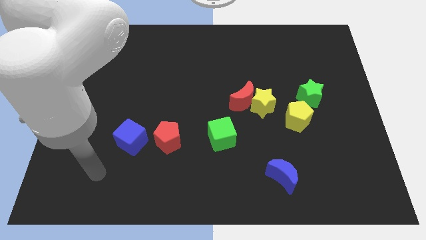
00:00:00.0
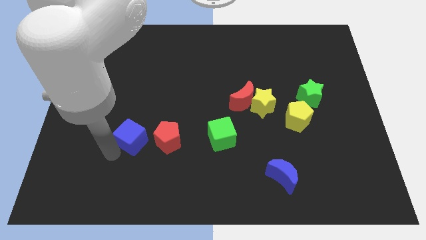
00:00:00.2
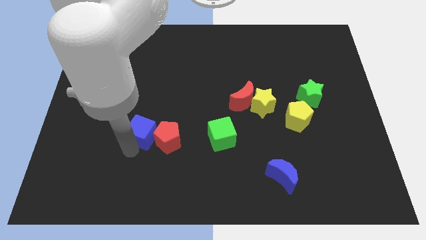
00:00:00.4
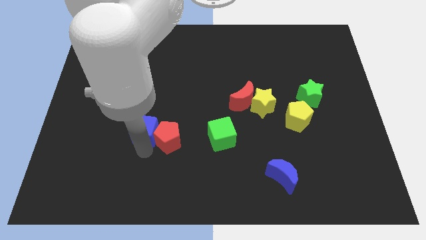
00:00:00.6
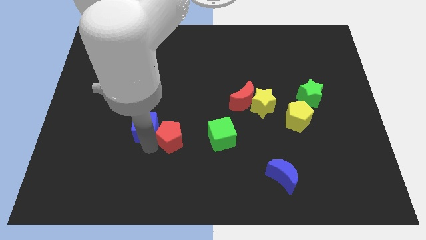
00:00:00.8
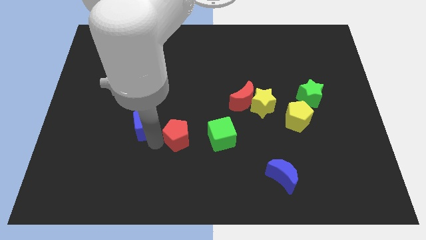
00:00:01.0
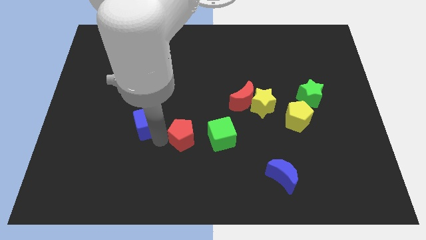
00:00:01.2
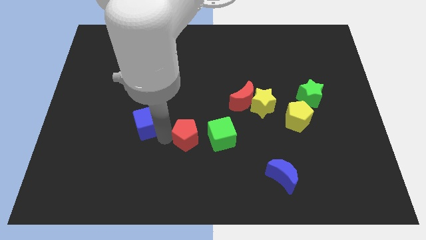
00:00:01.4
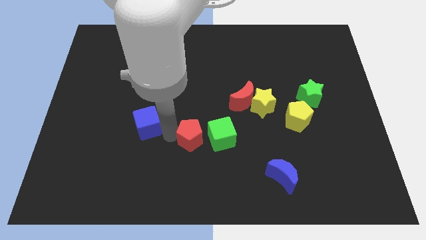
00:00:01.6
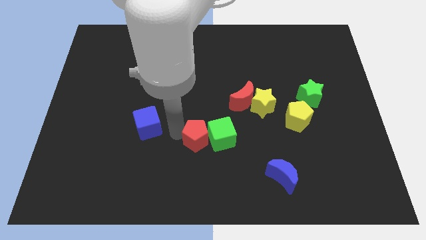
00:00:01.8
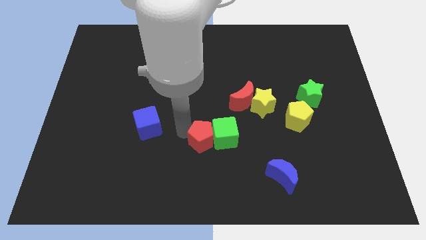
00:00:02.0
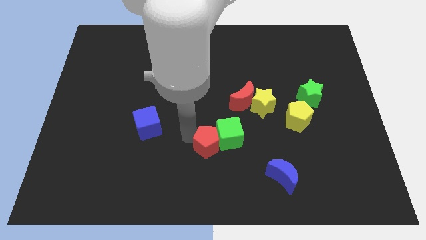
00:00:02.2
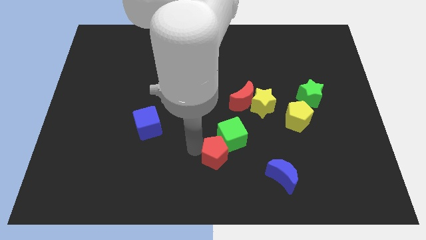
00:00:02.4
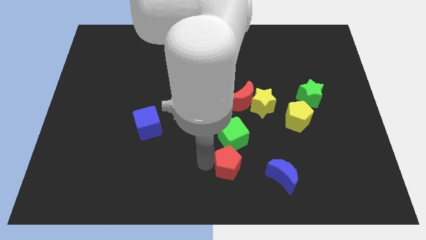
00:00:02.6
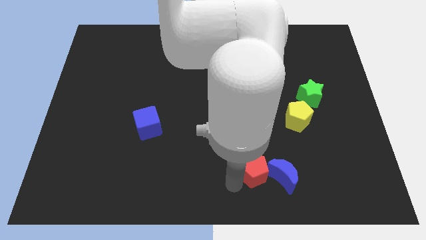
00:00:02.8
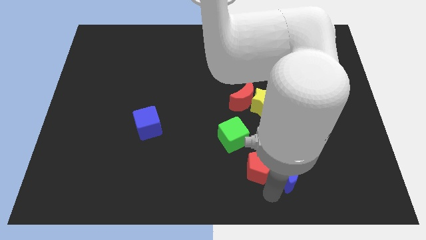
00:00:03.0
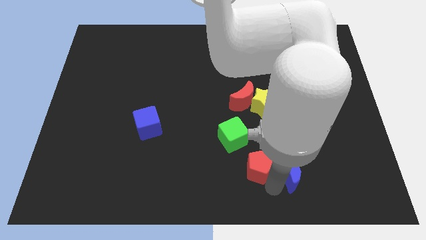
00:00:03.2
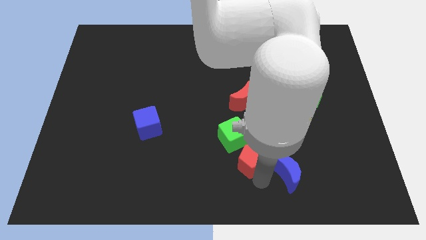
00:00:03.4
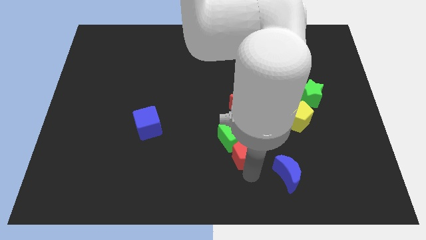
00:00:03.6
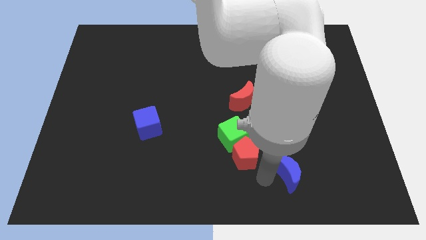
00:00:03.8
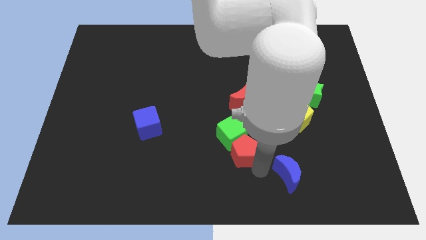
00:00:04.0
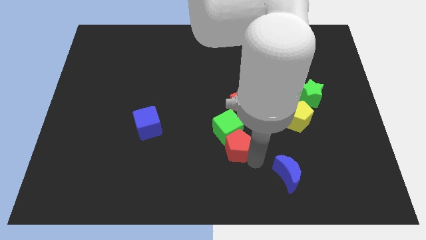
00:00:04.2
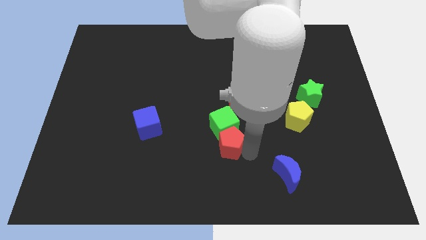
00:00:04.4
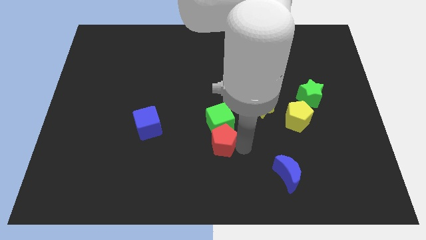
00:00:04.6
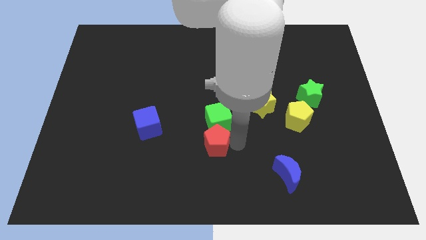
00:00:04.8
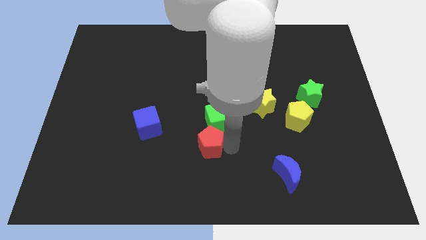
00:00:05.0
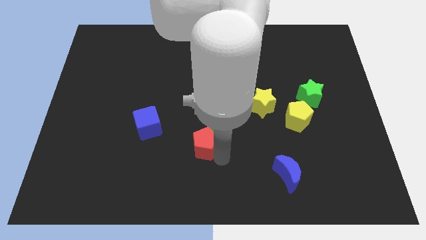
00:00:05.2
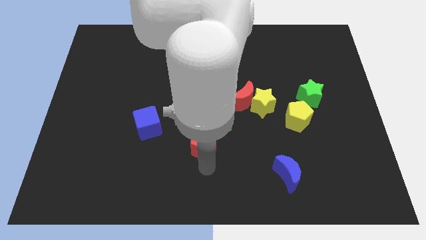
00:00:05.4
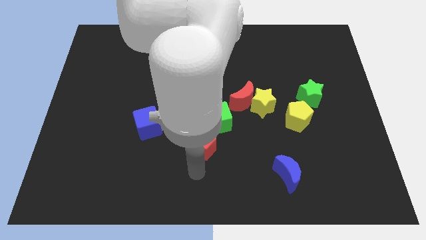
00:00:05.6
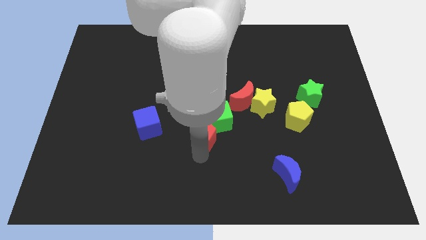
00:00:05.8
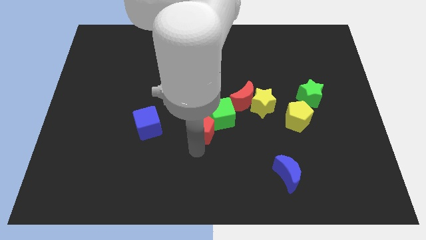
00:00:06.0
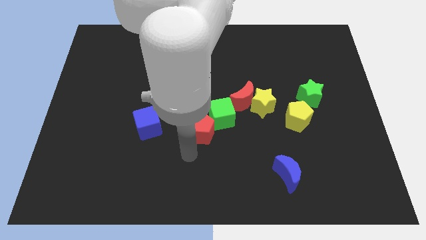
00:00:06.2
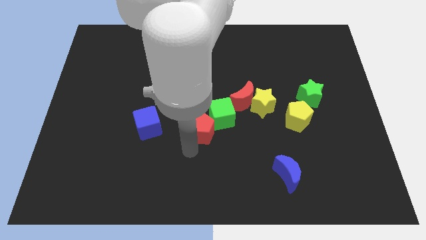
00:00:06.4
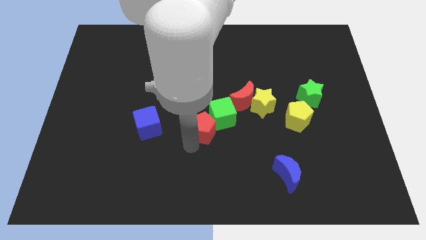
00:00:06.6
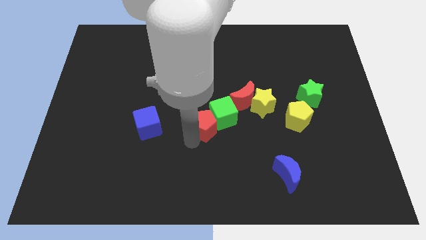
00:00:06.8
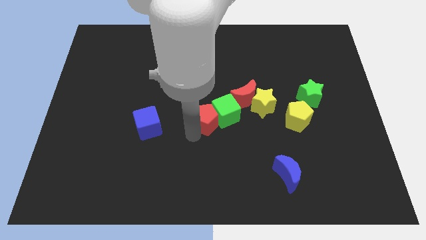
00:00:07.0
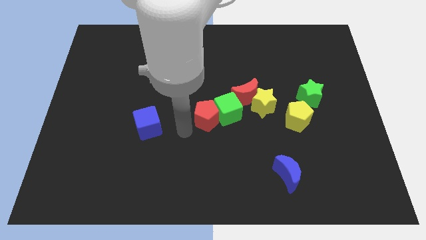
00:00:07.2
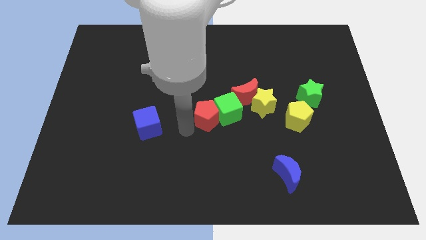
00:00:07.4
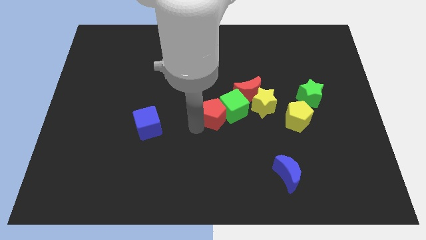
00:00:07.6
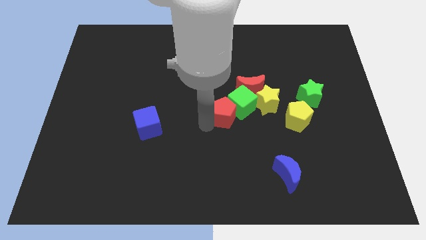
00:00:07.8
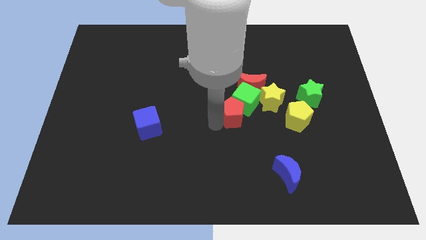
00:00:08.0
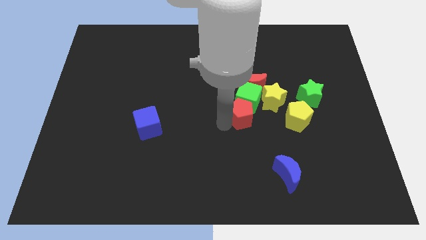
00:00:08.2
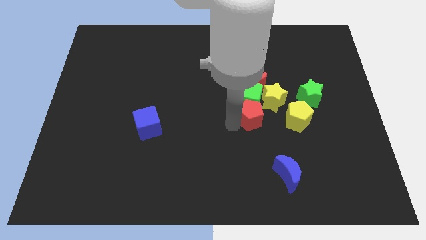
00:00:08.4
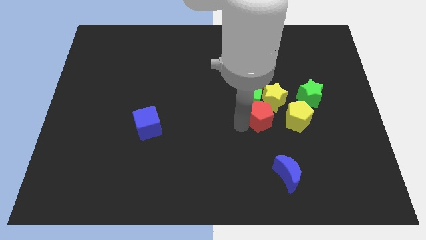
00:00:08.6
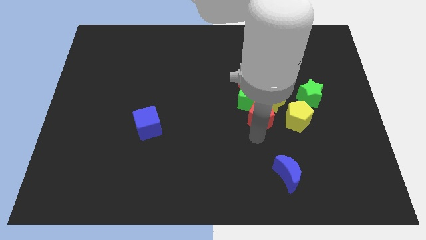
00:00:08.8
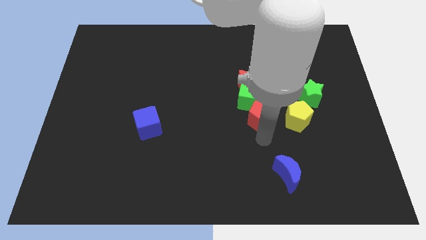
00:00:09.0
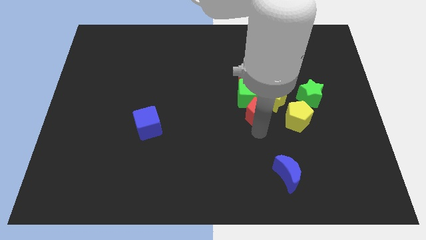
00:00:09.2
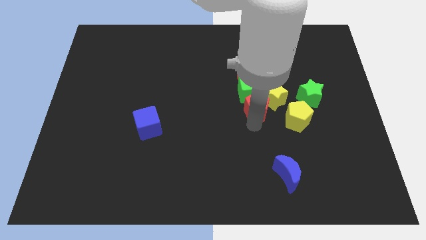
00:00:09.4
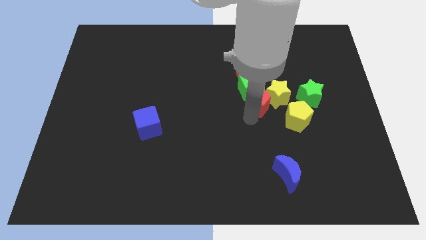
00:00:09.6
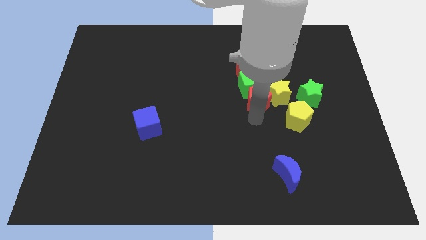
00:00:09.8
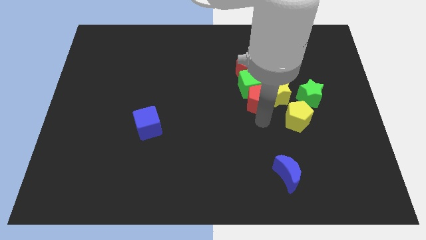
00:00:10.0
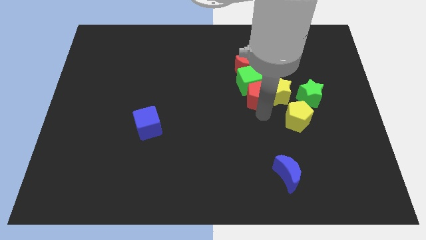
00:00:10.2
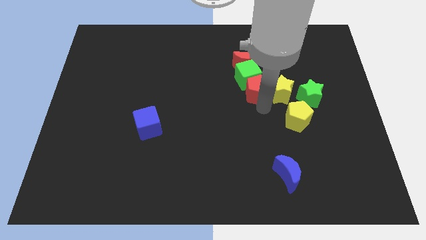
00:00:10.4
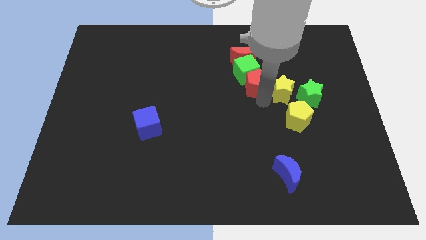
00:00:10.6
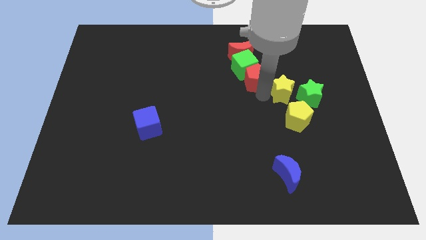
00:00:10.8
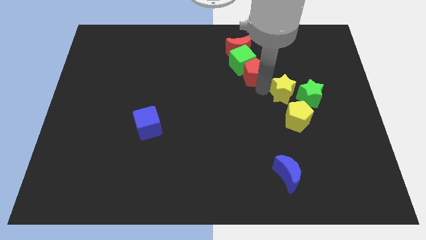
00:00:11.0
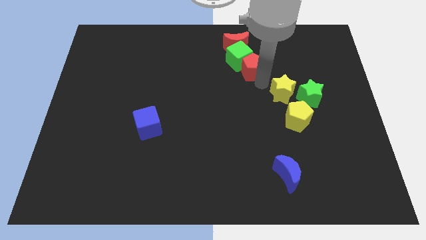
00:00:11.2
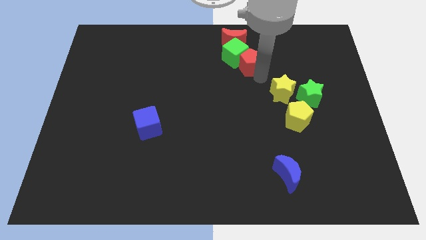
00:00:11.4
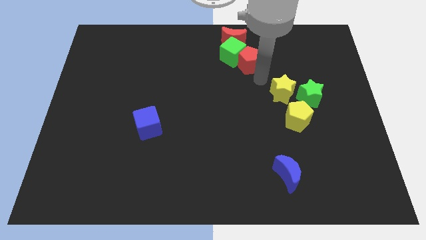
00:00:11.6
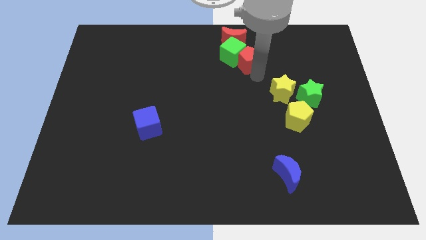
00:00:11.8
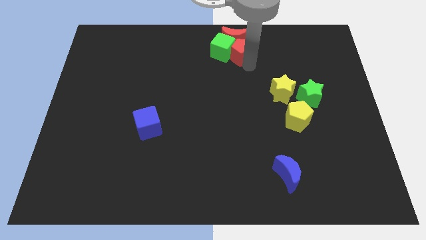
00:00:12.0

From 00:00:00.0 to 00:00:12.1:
move the red pentagon to the red moon
